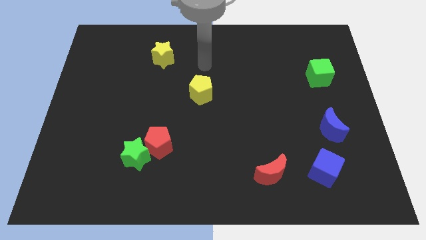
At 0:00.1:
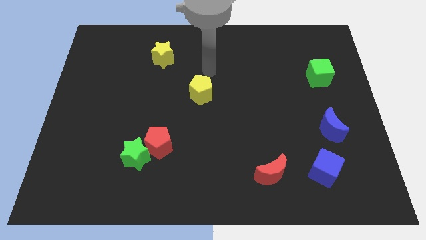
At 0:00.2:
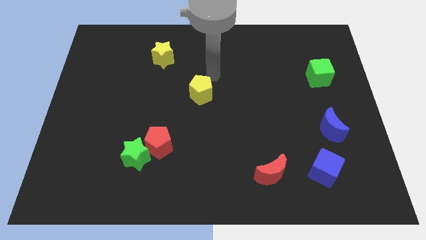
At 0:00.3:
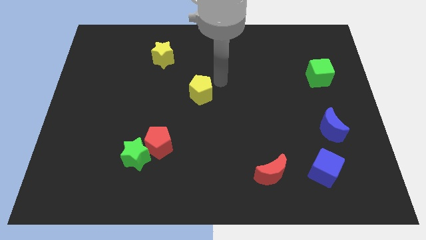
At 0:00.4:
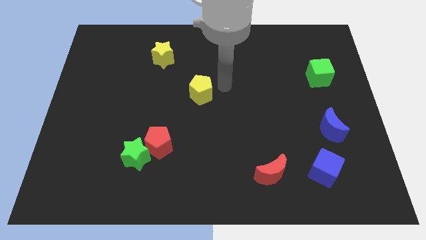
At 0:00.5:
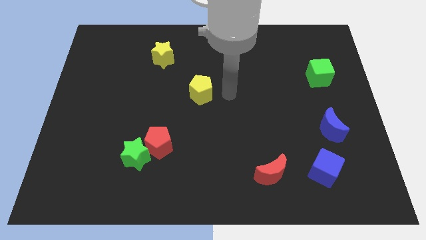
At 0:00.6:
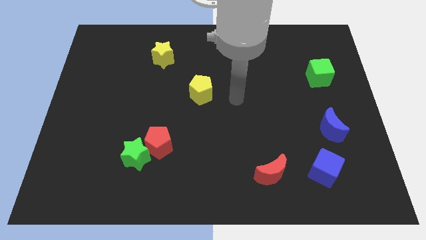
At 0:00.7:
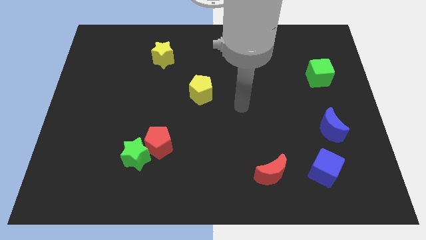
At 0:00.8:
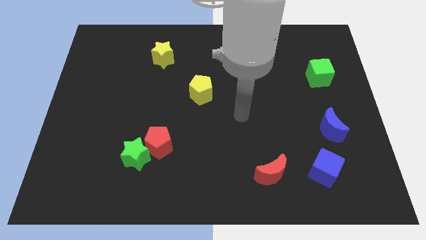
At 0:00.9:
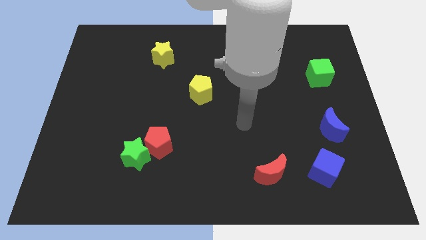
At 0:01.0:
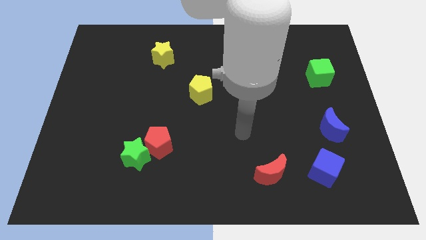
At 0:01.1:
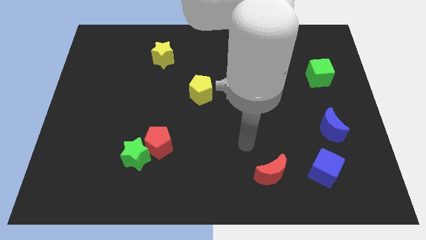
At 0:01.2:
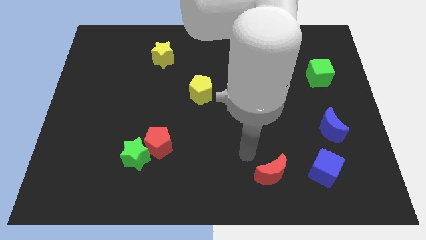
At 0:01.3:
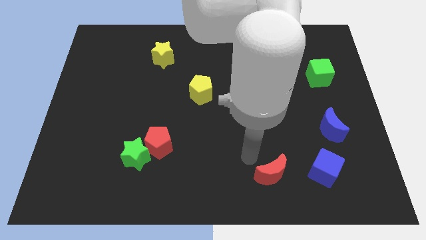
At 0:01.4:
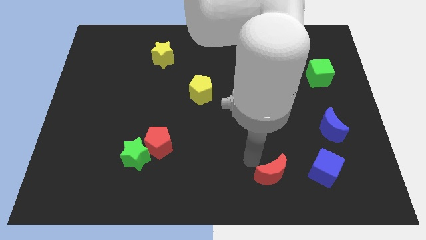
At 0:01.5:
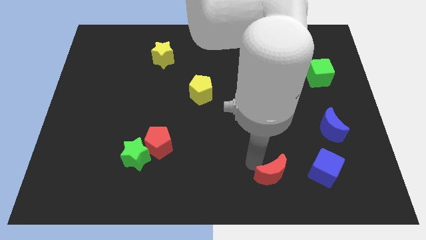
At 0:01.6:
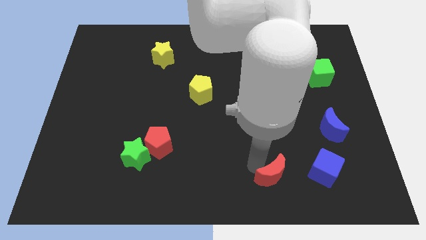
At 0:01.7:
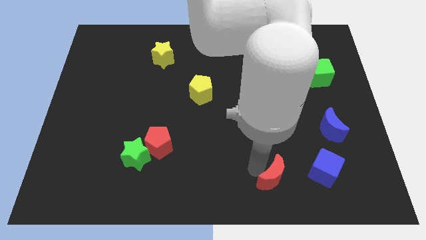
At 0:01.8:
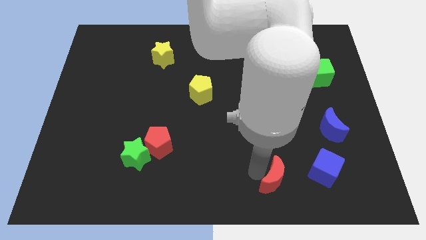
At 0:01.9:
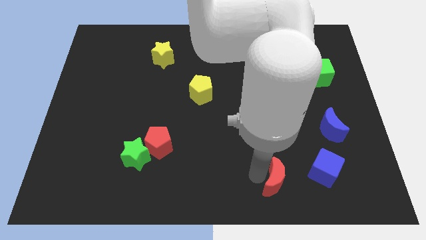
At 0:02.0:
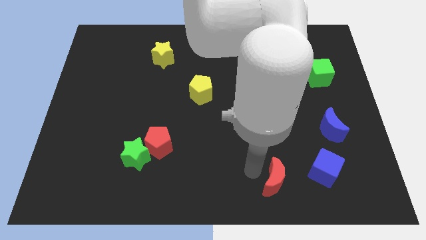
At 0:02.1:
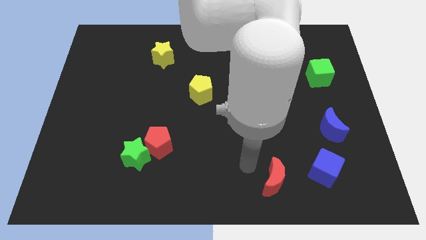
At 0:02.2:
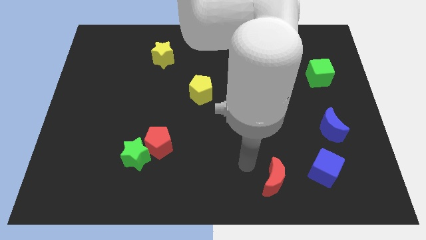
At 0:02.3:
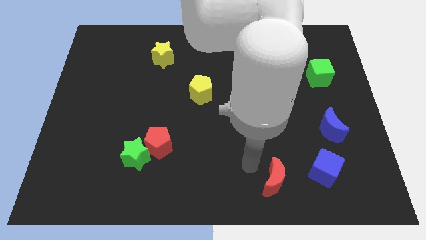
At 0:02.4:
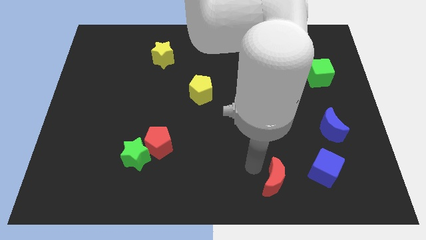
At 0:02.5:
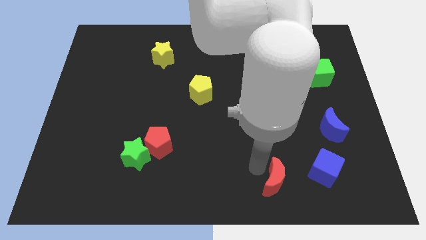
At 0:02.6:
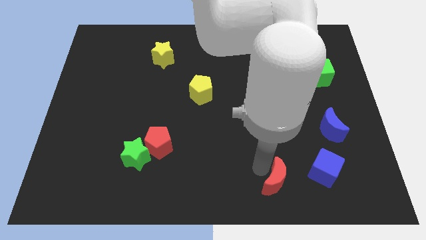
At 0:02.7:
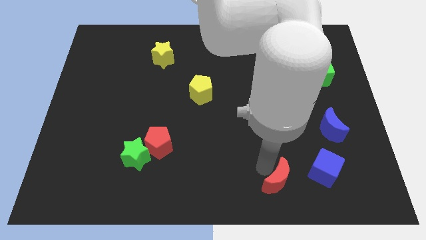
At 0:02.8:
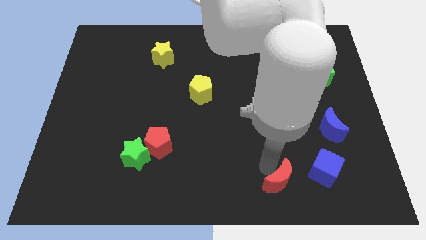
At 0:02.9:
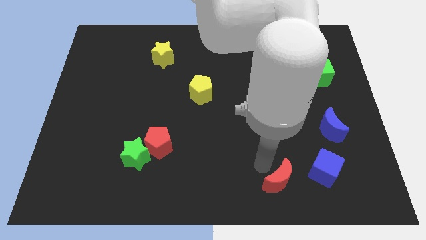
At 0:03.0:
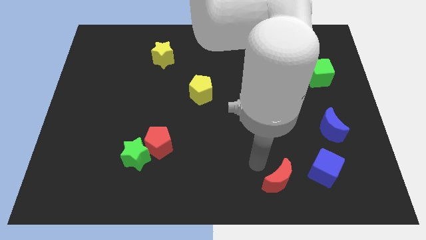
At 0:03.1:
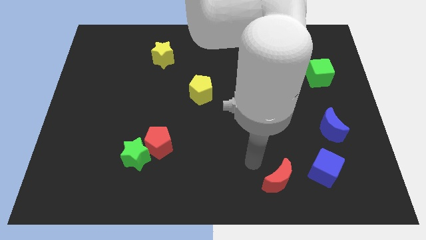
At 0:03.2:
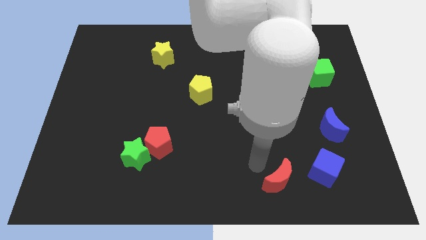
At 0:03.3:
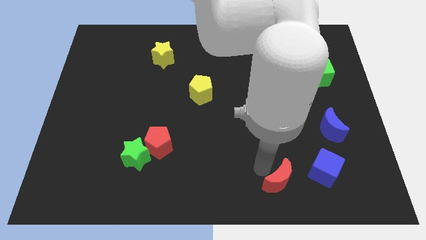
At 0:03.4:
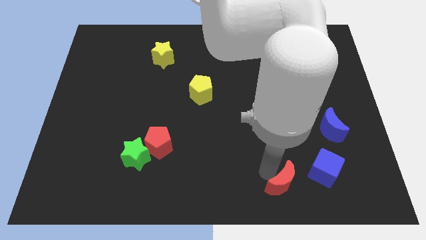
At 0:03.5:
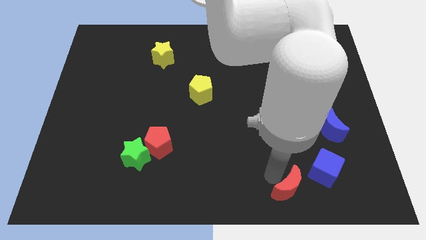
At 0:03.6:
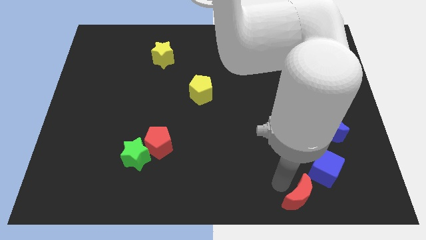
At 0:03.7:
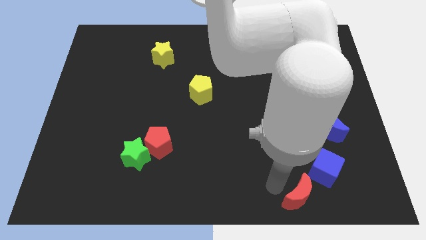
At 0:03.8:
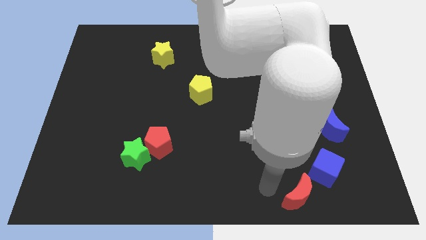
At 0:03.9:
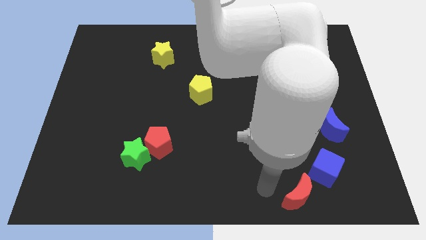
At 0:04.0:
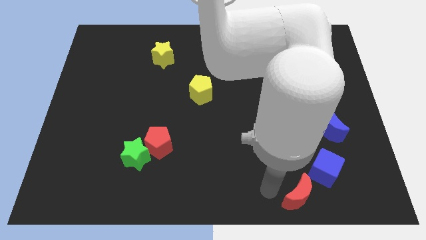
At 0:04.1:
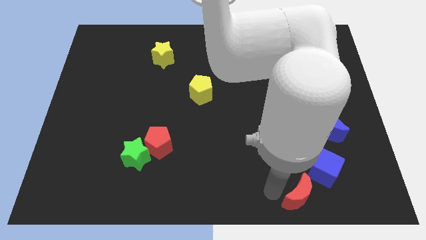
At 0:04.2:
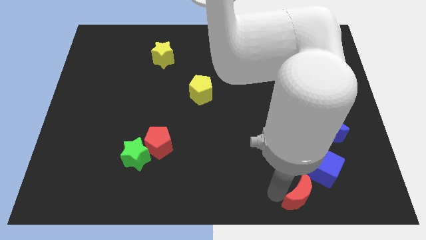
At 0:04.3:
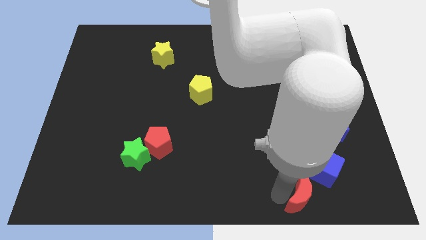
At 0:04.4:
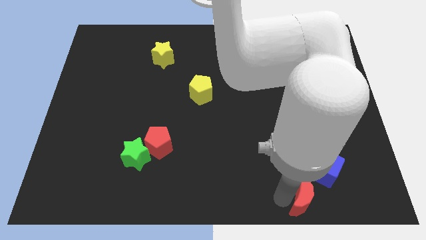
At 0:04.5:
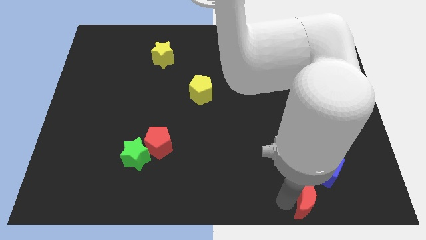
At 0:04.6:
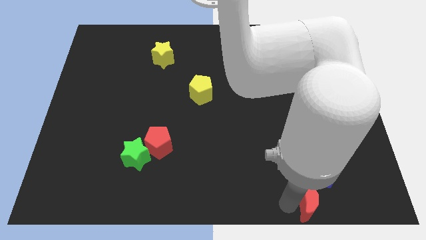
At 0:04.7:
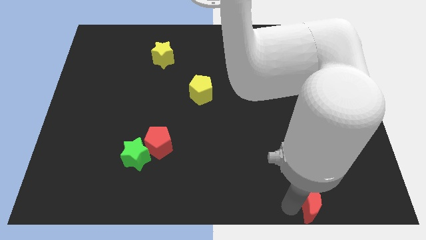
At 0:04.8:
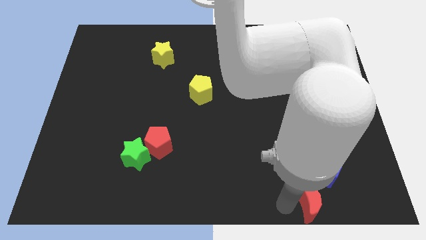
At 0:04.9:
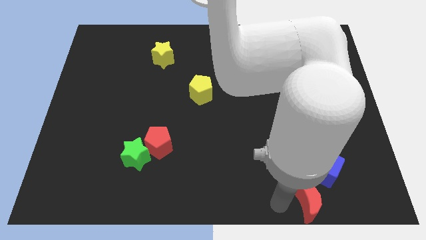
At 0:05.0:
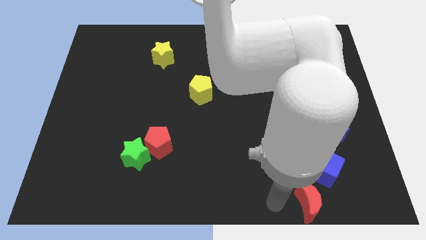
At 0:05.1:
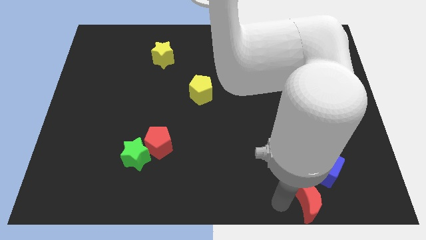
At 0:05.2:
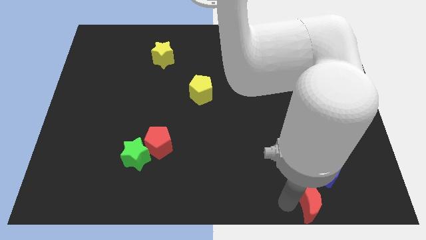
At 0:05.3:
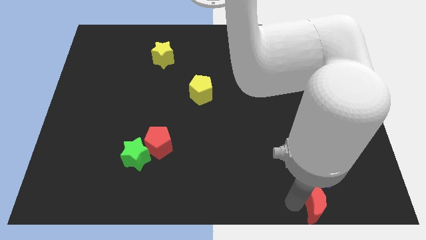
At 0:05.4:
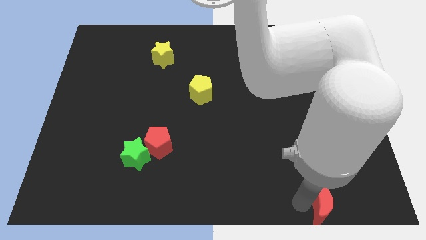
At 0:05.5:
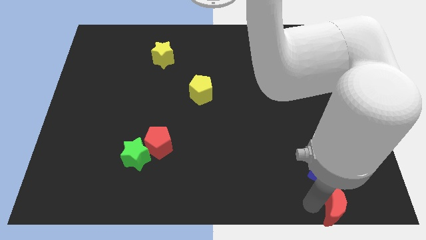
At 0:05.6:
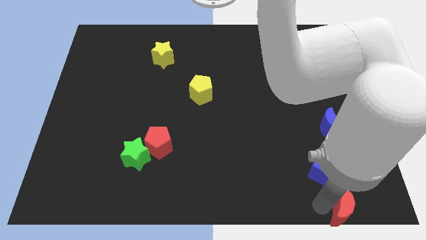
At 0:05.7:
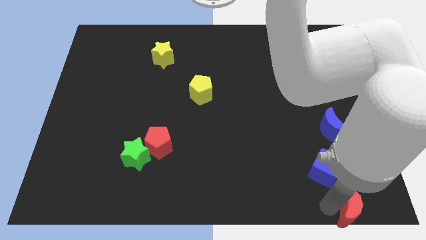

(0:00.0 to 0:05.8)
slide the red moon to the bottom right

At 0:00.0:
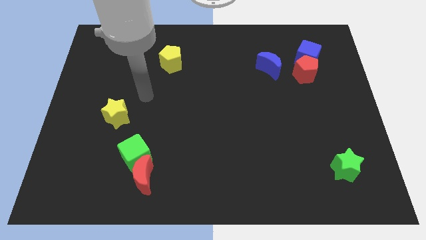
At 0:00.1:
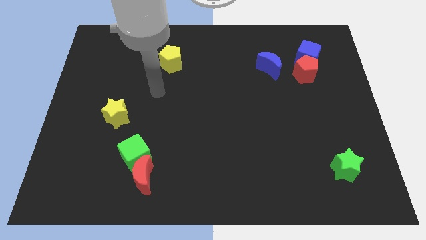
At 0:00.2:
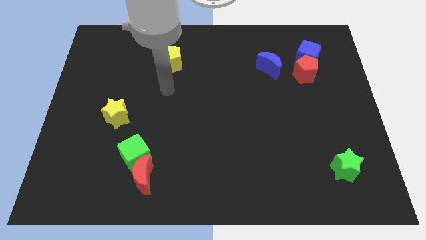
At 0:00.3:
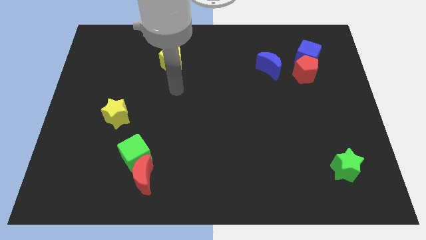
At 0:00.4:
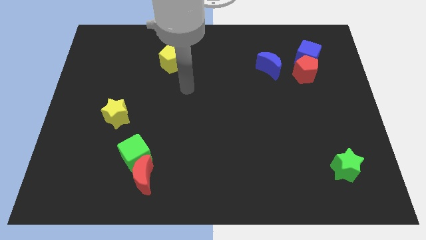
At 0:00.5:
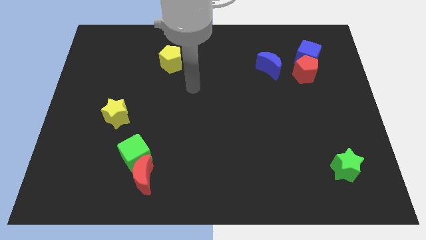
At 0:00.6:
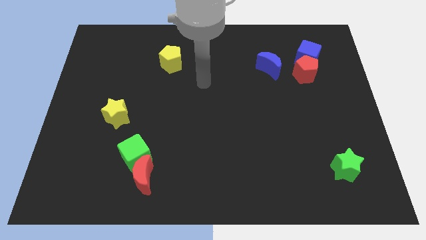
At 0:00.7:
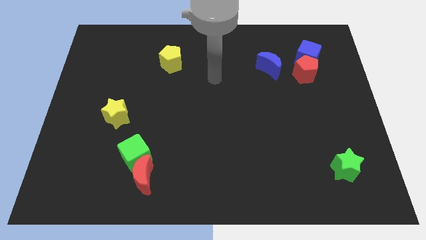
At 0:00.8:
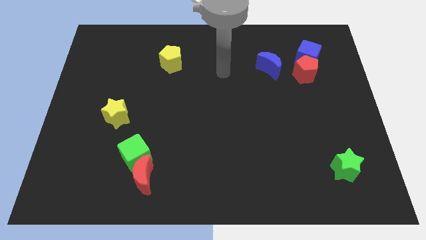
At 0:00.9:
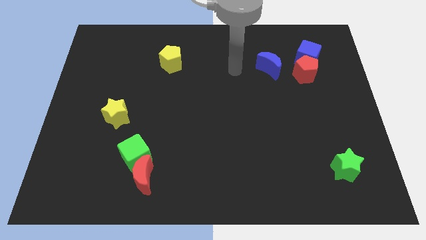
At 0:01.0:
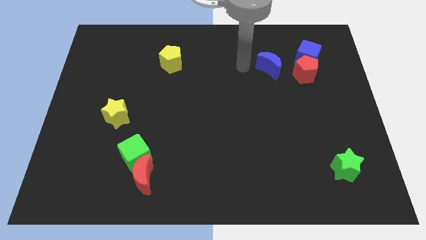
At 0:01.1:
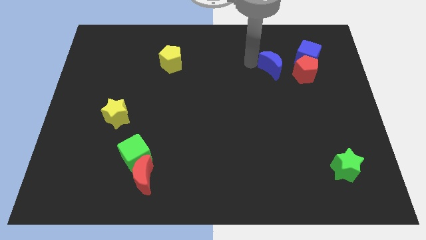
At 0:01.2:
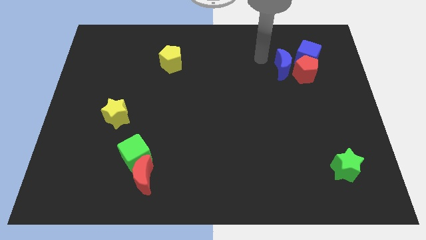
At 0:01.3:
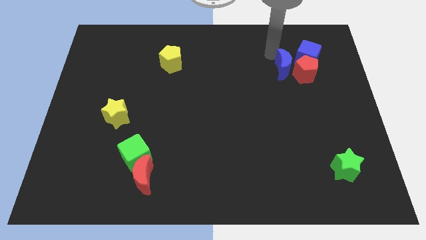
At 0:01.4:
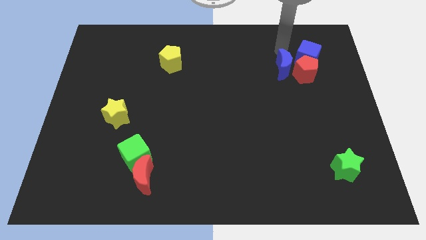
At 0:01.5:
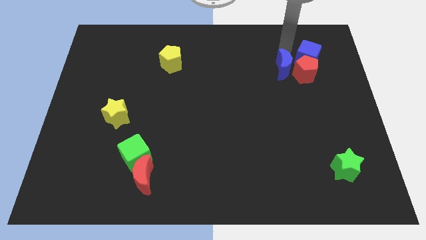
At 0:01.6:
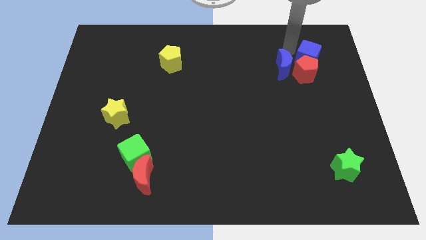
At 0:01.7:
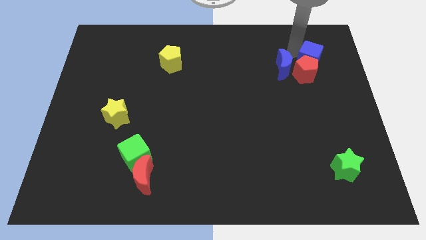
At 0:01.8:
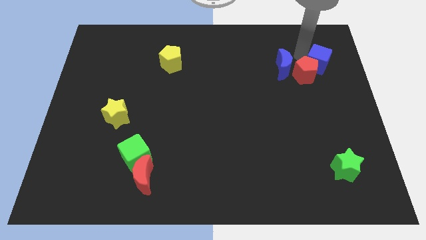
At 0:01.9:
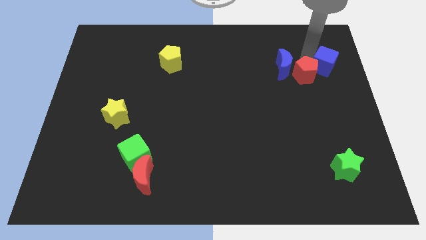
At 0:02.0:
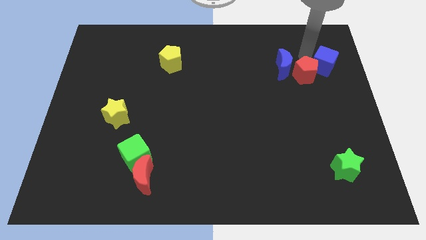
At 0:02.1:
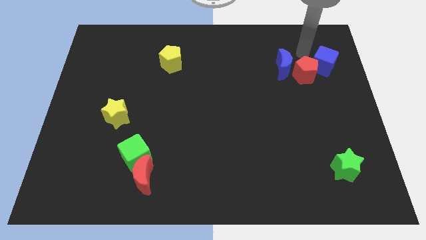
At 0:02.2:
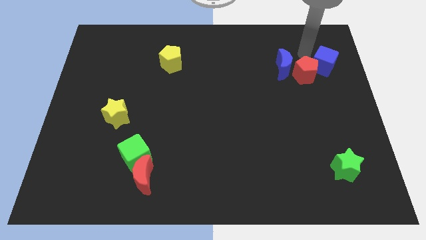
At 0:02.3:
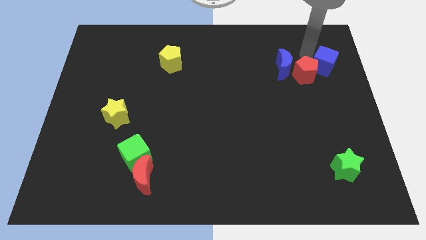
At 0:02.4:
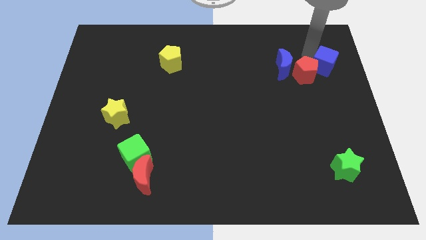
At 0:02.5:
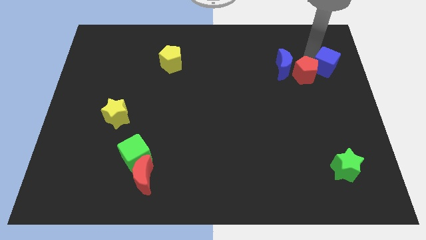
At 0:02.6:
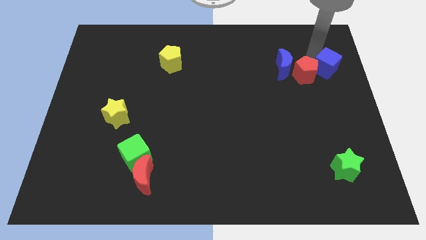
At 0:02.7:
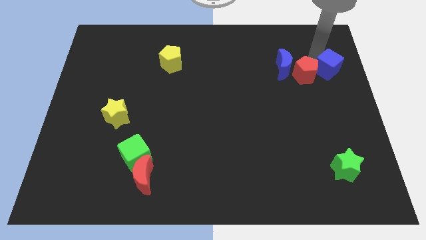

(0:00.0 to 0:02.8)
move the blue cube to the right side
